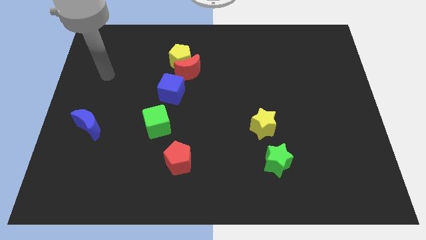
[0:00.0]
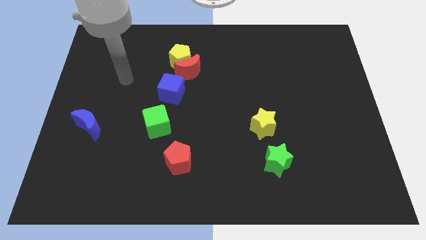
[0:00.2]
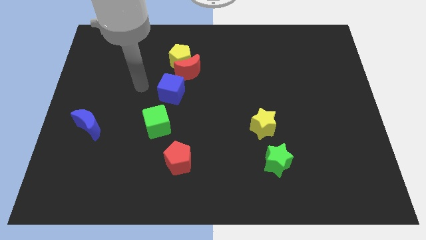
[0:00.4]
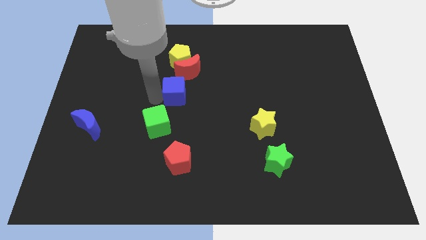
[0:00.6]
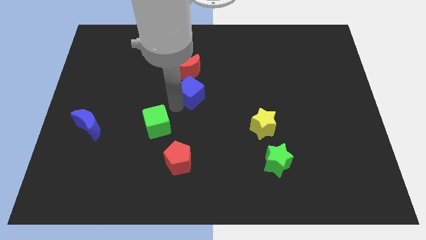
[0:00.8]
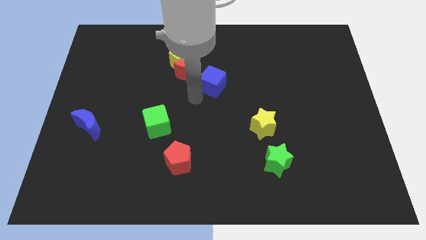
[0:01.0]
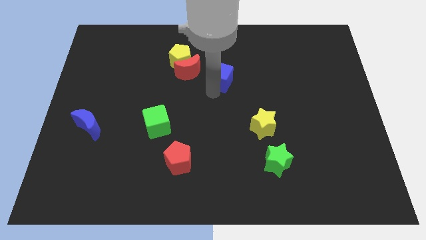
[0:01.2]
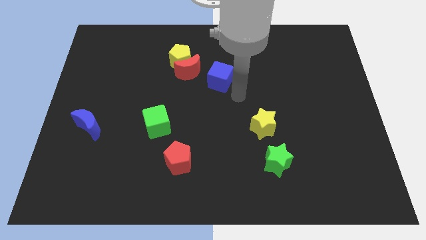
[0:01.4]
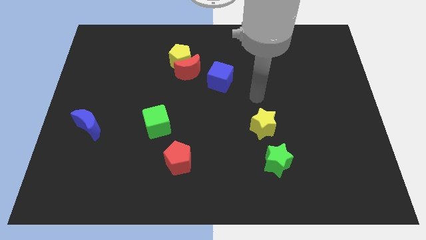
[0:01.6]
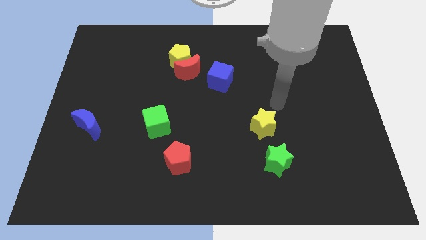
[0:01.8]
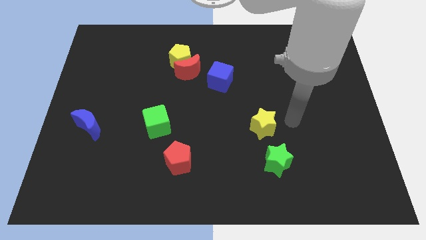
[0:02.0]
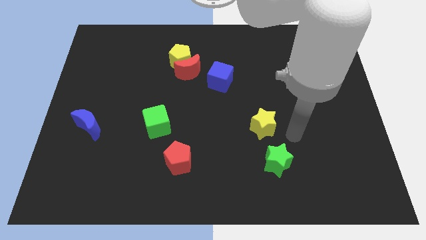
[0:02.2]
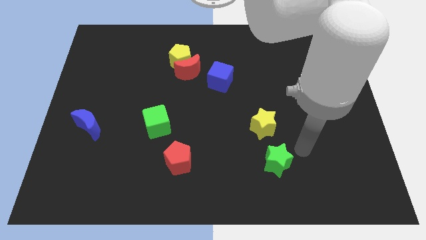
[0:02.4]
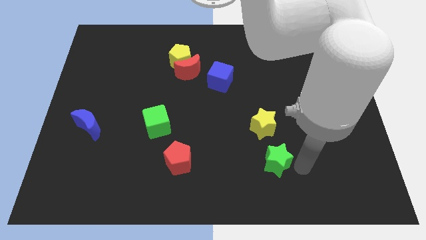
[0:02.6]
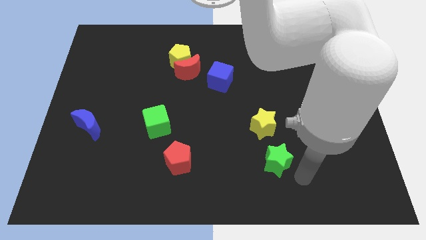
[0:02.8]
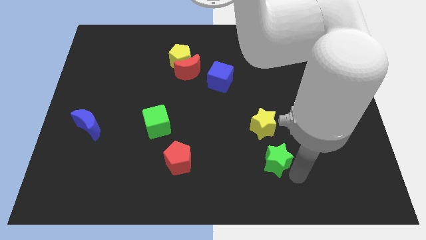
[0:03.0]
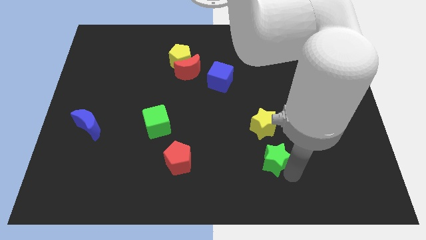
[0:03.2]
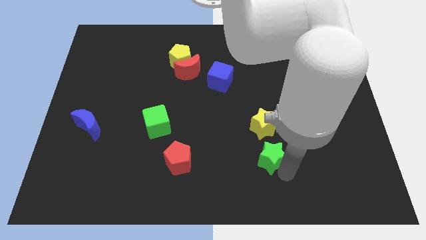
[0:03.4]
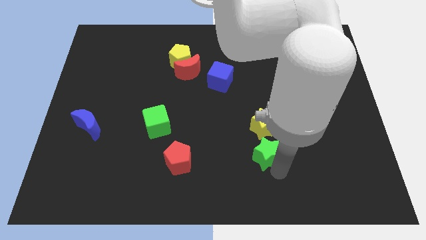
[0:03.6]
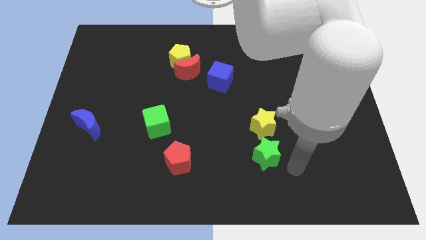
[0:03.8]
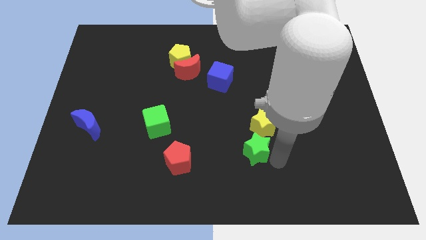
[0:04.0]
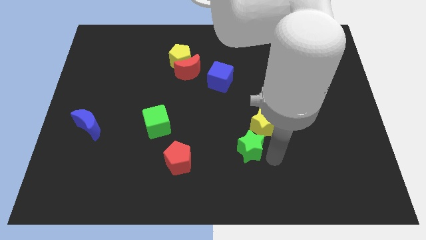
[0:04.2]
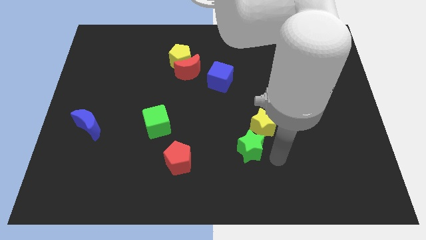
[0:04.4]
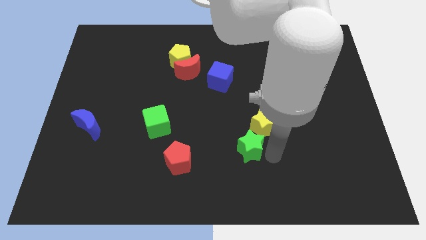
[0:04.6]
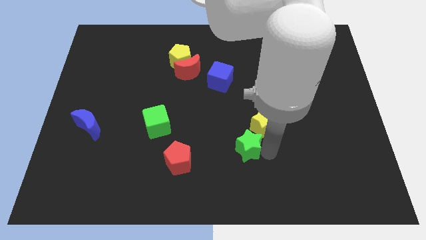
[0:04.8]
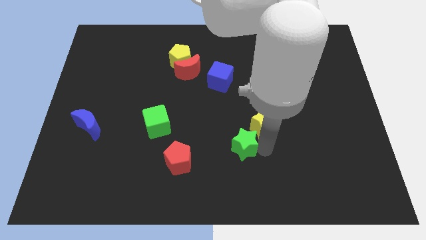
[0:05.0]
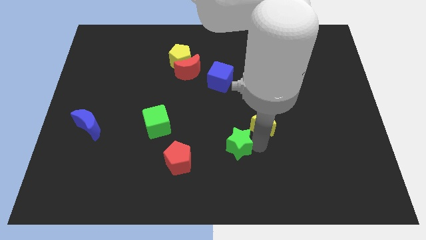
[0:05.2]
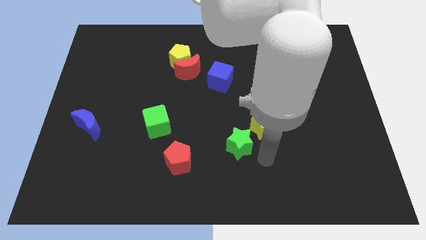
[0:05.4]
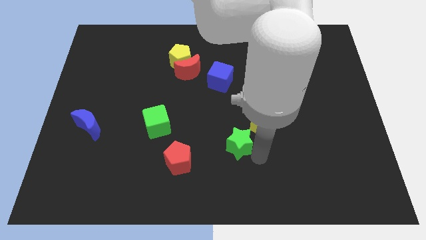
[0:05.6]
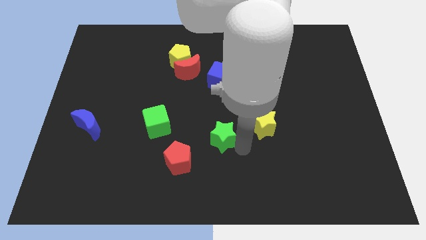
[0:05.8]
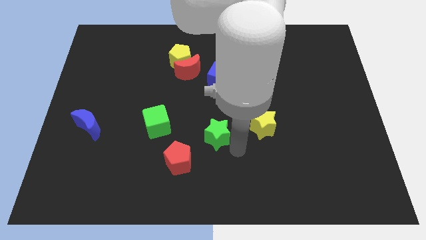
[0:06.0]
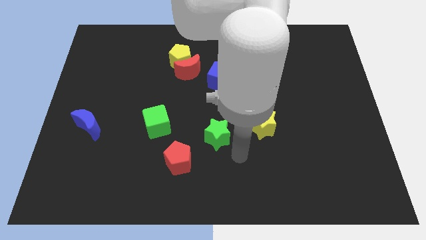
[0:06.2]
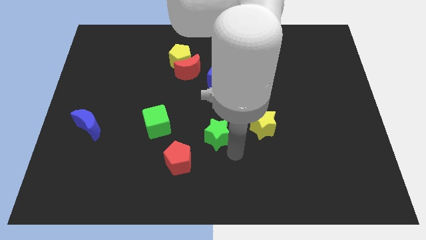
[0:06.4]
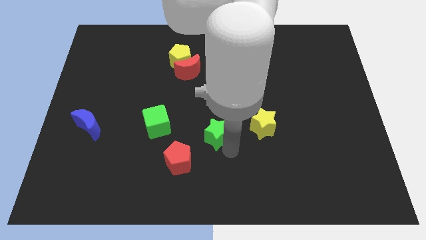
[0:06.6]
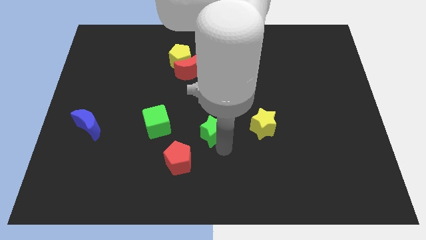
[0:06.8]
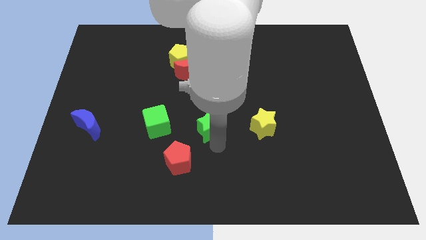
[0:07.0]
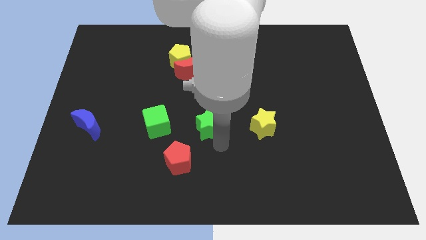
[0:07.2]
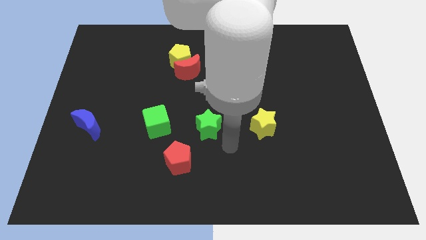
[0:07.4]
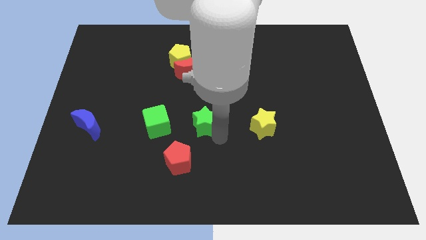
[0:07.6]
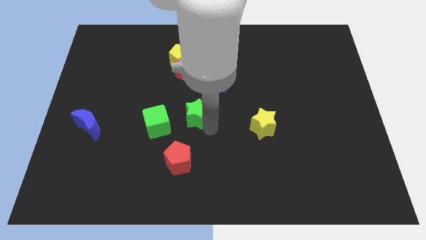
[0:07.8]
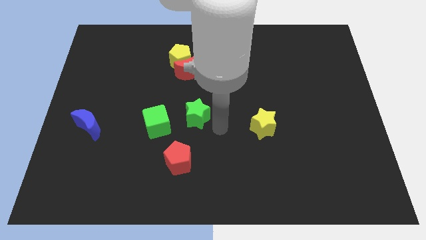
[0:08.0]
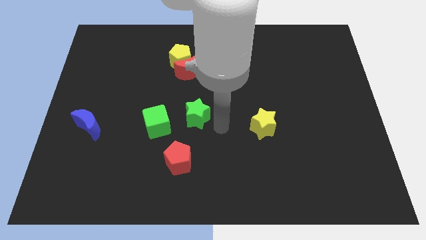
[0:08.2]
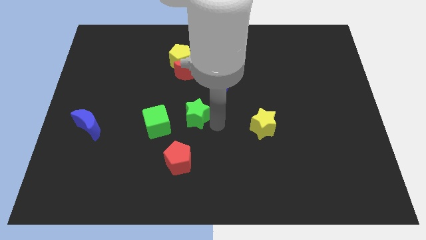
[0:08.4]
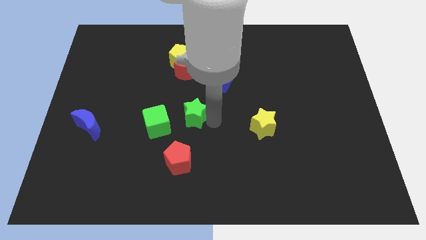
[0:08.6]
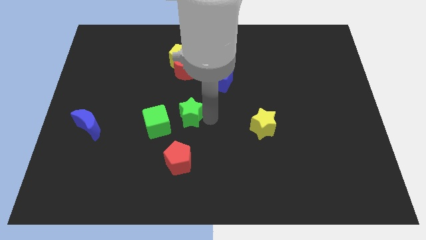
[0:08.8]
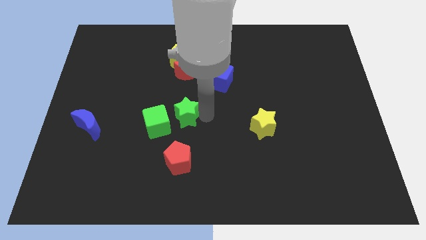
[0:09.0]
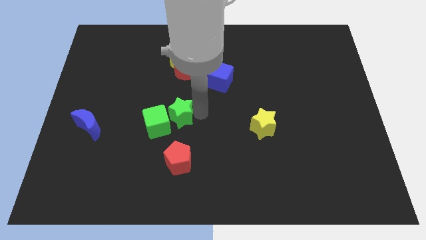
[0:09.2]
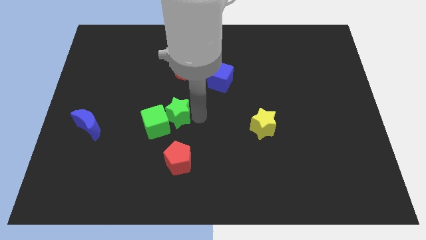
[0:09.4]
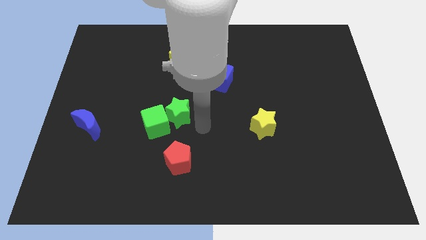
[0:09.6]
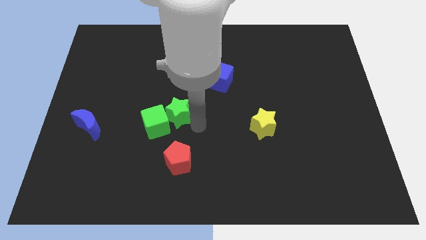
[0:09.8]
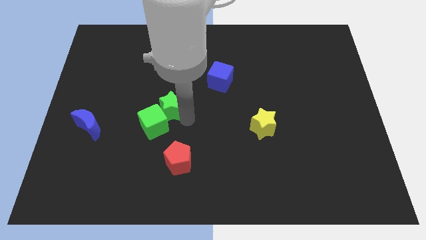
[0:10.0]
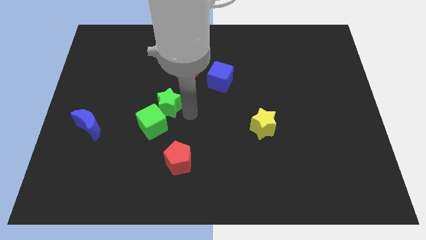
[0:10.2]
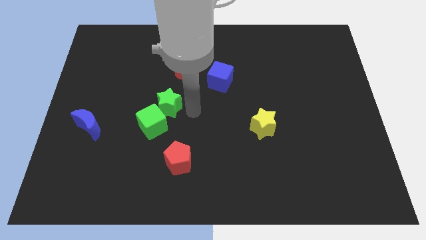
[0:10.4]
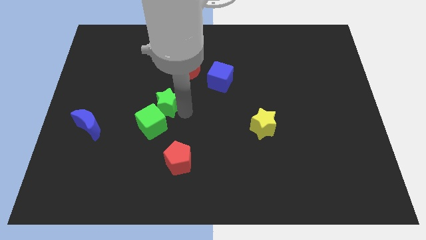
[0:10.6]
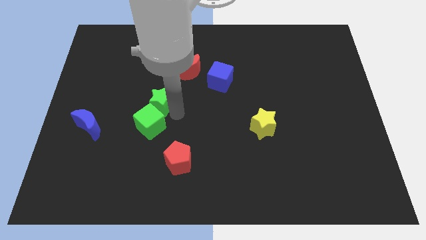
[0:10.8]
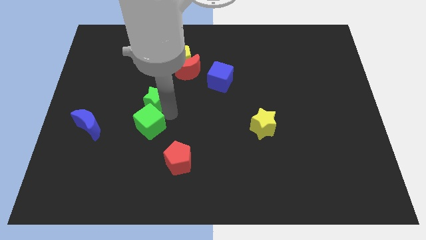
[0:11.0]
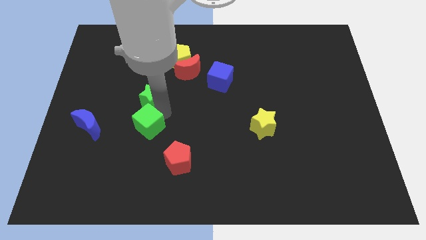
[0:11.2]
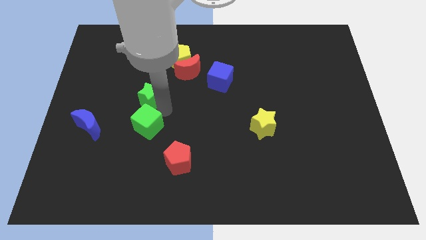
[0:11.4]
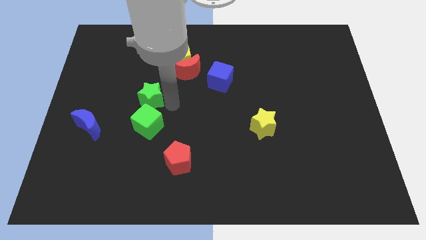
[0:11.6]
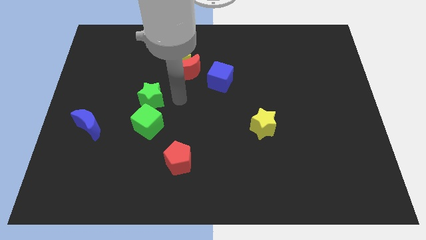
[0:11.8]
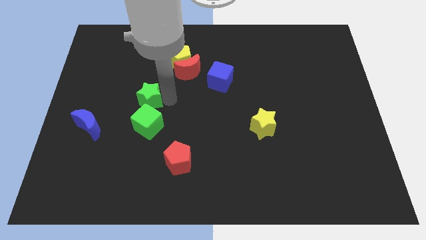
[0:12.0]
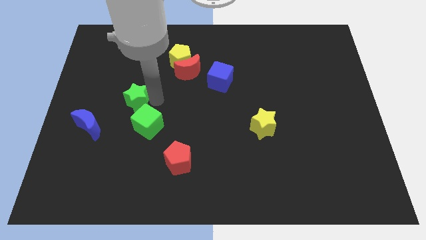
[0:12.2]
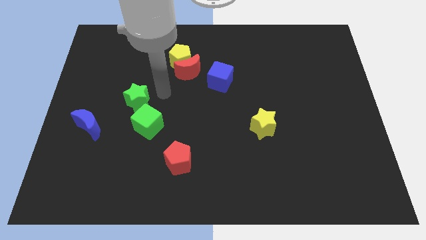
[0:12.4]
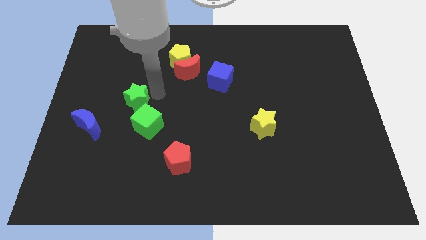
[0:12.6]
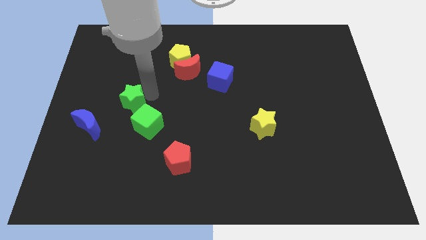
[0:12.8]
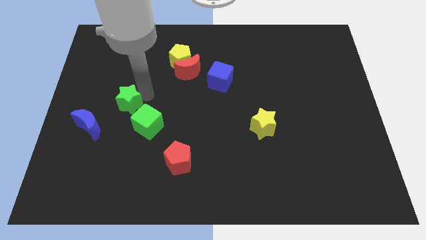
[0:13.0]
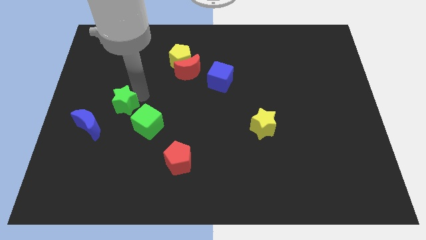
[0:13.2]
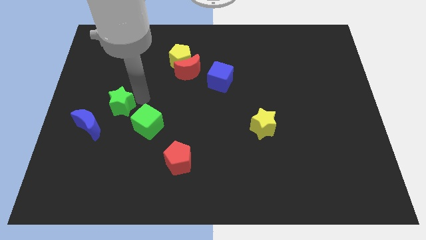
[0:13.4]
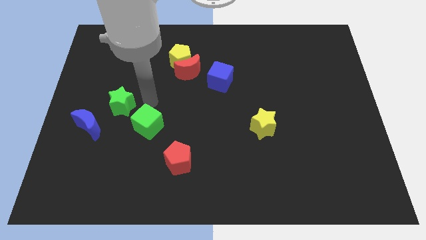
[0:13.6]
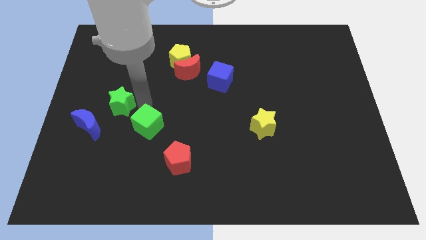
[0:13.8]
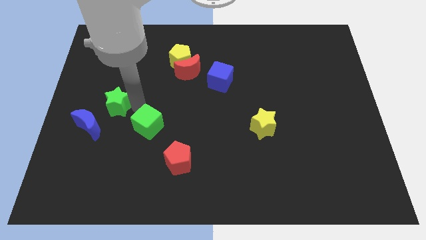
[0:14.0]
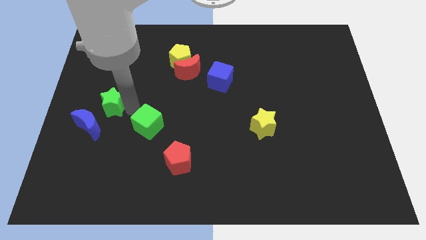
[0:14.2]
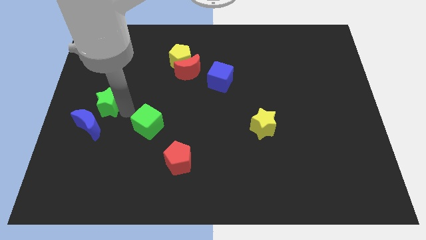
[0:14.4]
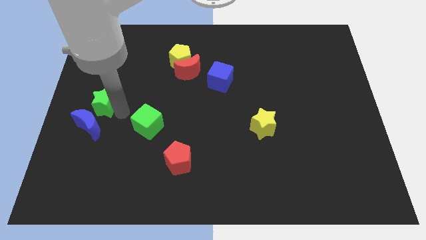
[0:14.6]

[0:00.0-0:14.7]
move the green star to the left side of the board
